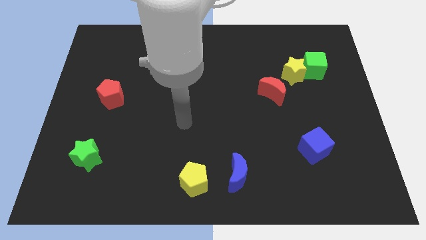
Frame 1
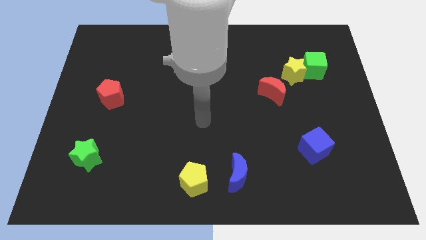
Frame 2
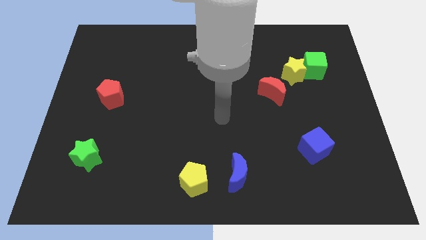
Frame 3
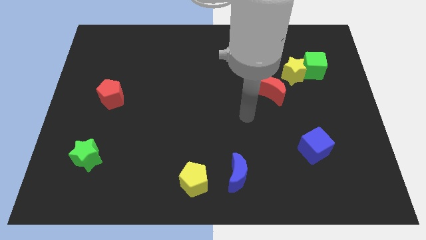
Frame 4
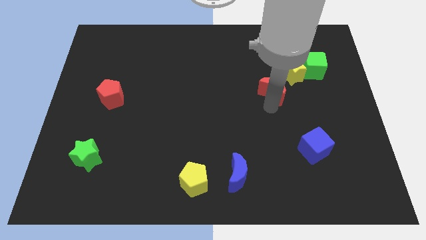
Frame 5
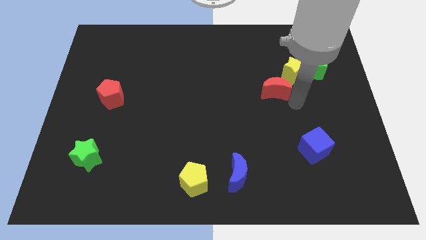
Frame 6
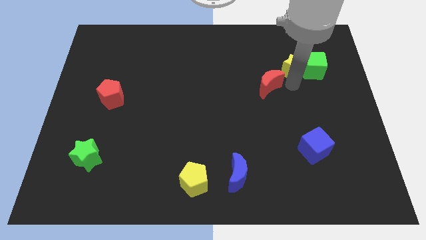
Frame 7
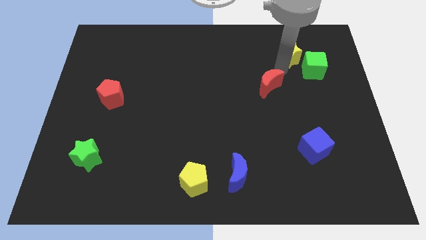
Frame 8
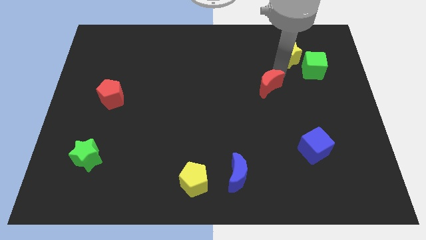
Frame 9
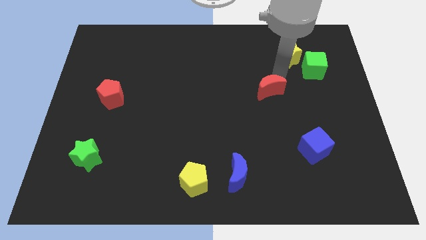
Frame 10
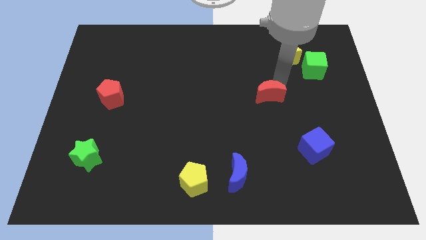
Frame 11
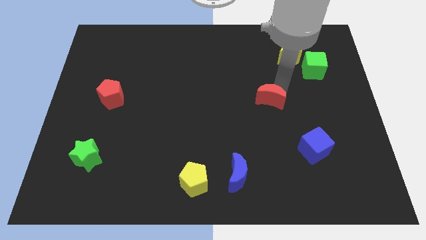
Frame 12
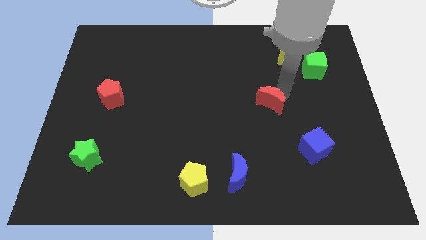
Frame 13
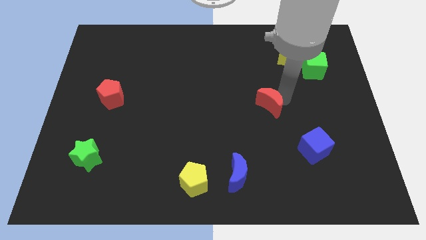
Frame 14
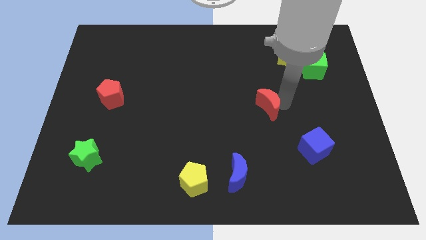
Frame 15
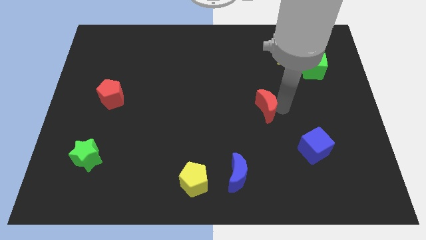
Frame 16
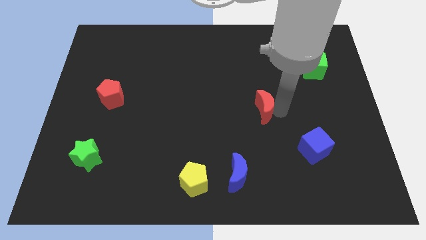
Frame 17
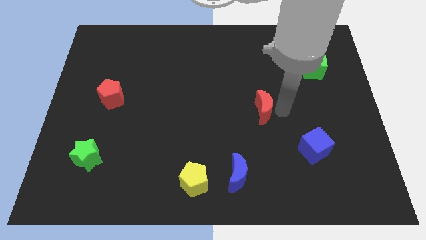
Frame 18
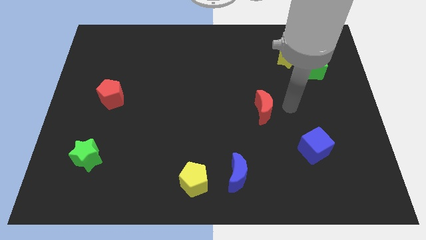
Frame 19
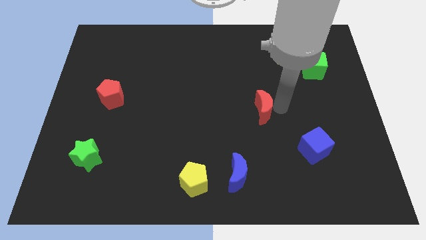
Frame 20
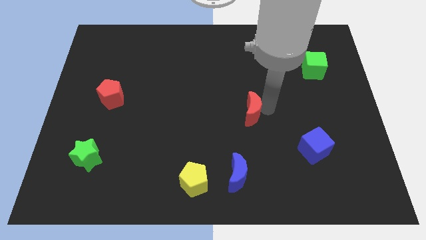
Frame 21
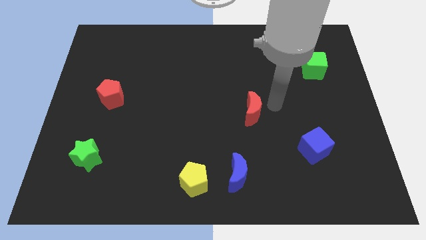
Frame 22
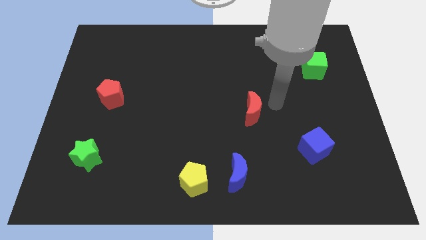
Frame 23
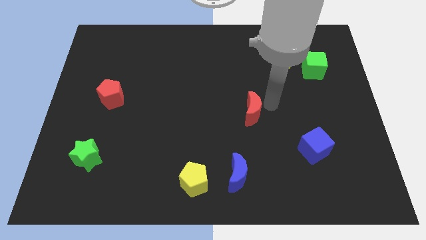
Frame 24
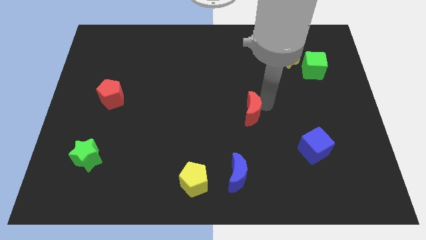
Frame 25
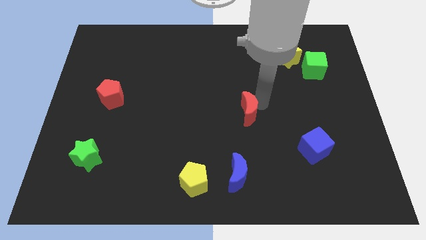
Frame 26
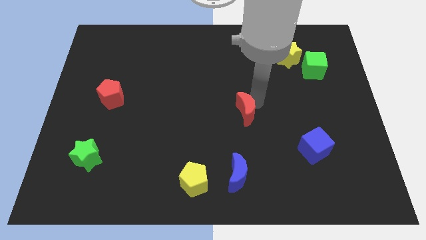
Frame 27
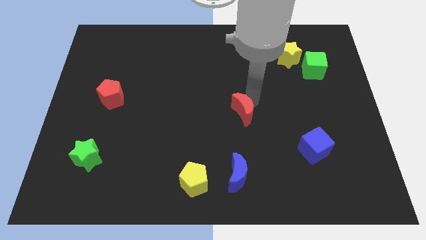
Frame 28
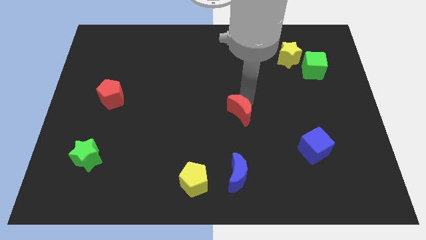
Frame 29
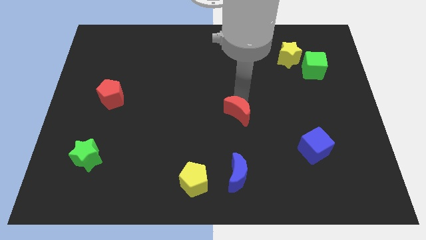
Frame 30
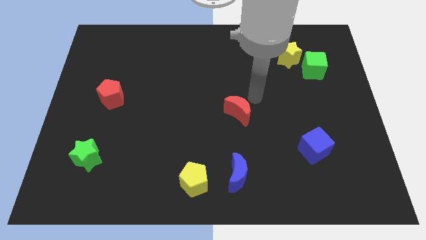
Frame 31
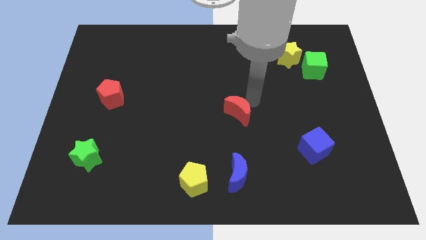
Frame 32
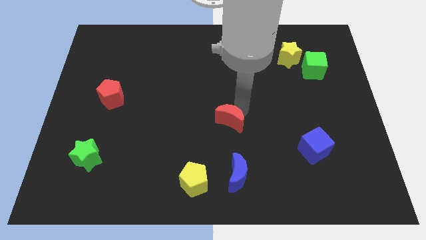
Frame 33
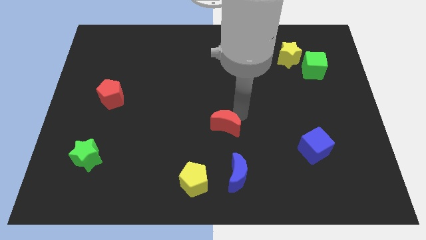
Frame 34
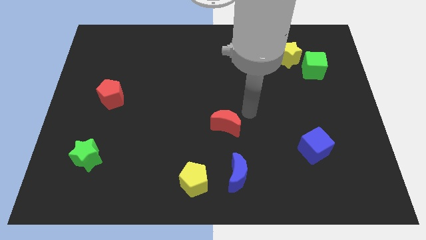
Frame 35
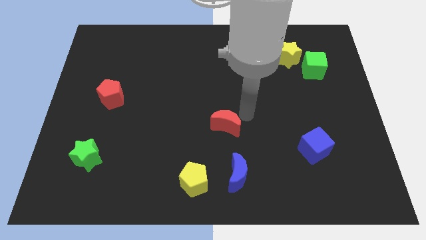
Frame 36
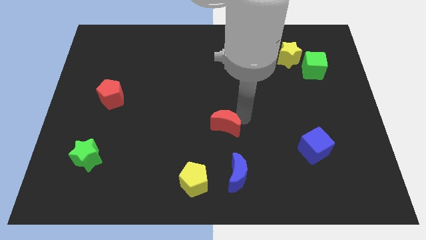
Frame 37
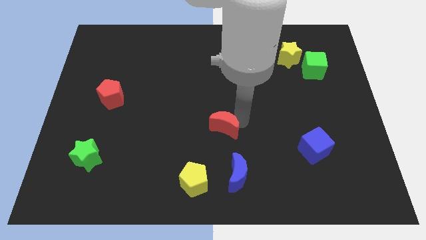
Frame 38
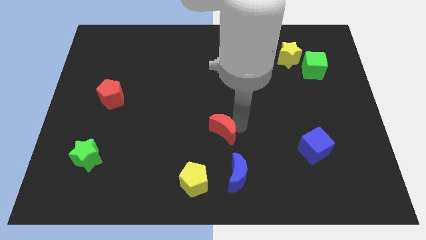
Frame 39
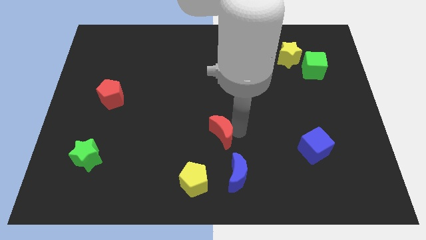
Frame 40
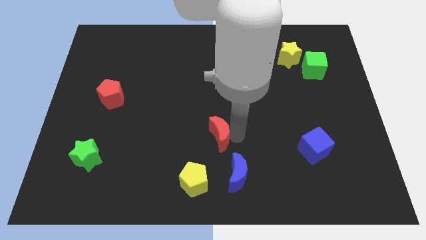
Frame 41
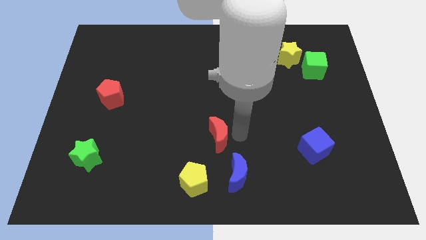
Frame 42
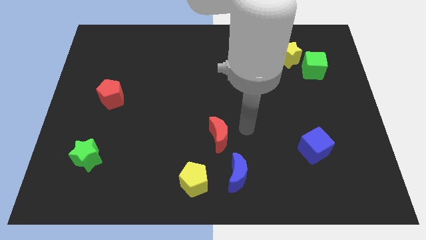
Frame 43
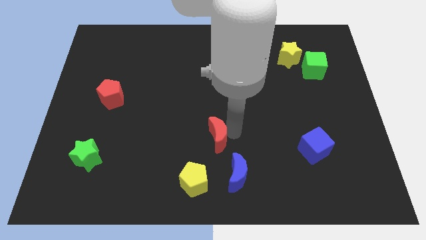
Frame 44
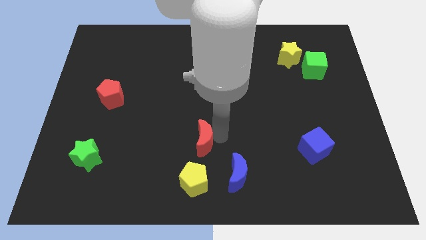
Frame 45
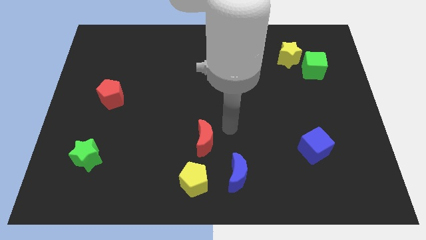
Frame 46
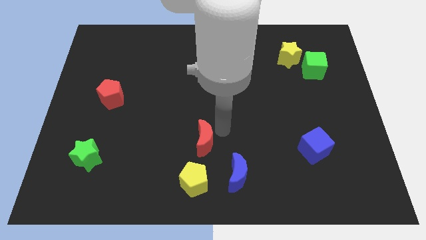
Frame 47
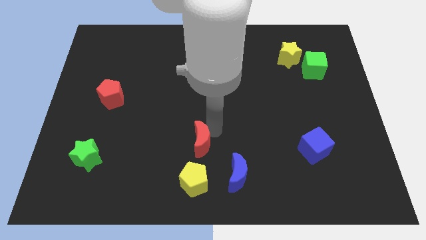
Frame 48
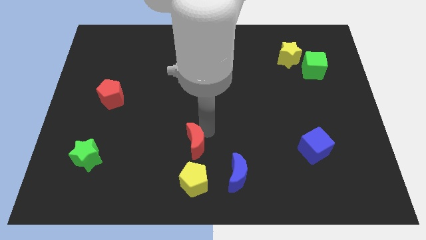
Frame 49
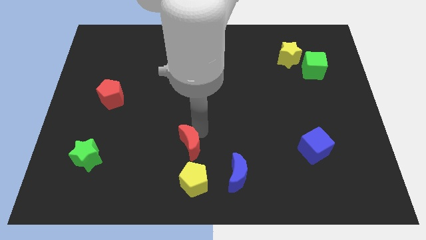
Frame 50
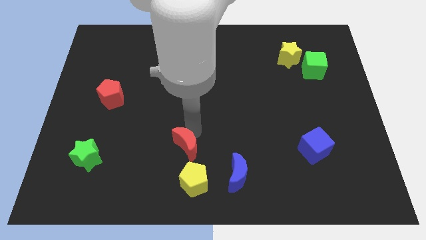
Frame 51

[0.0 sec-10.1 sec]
put the red moon to the top left side of the yellow pentagon

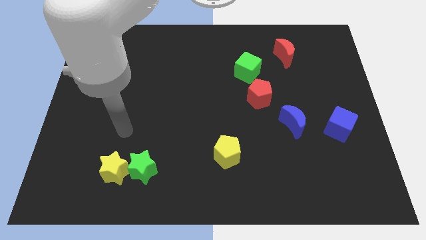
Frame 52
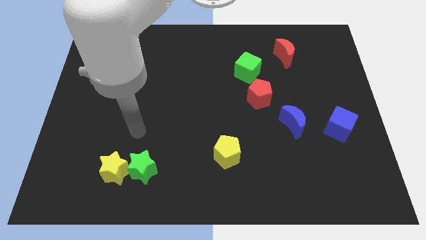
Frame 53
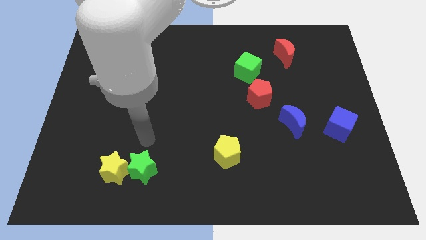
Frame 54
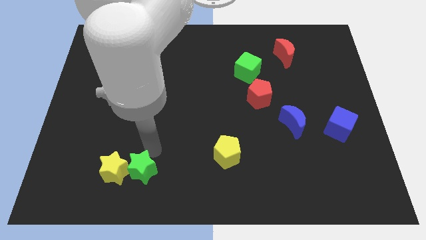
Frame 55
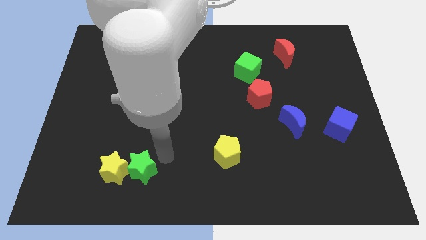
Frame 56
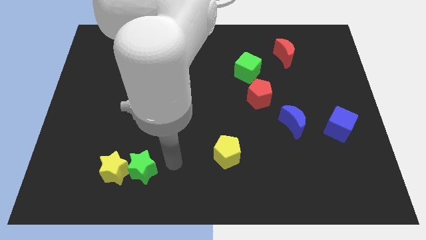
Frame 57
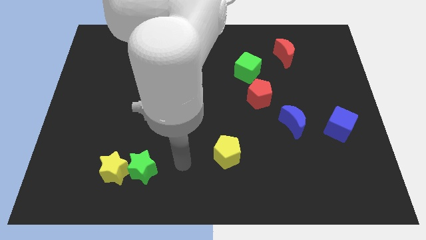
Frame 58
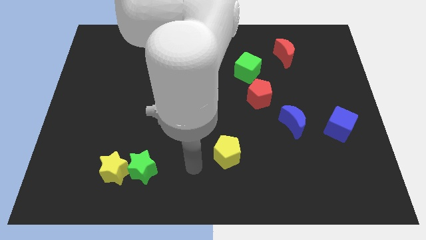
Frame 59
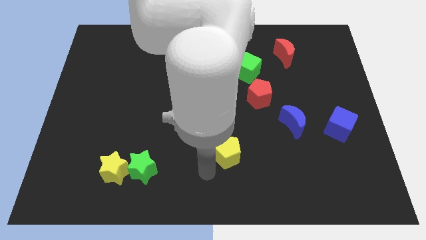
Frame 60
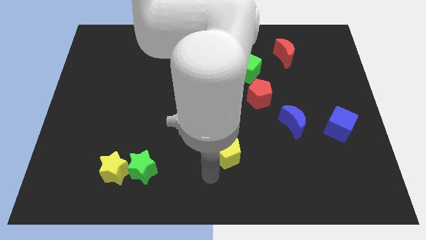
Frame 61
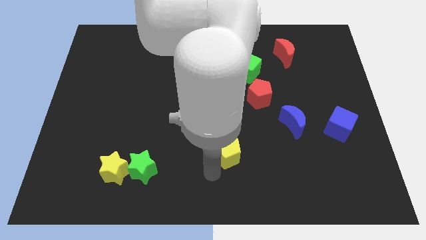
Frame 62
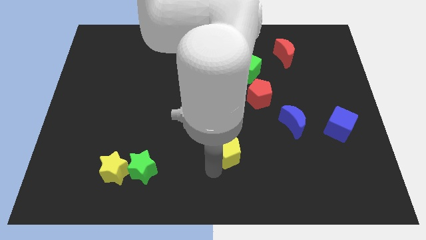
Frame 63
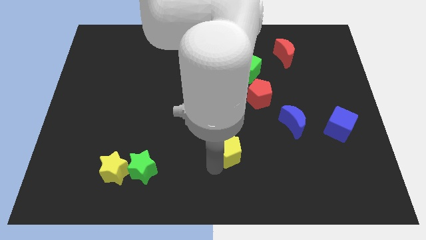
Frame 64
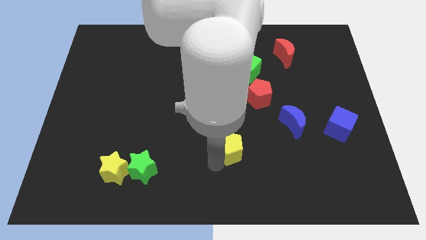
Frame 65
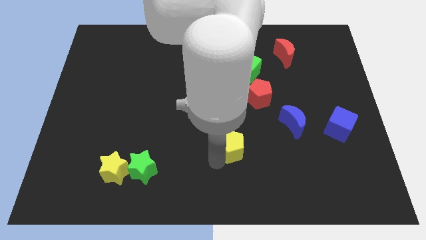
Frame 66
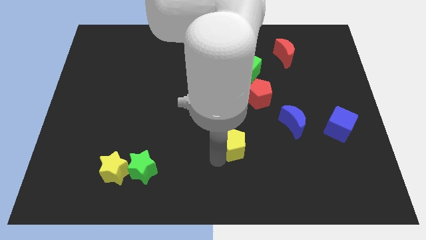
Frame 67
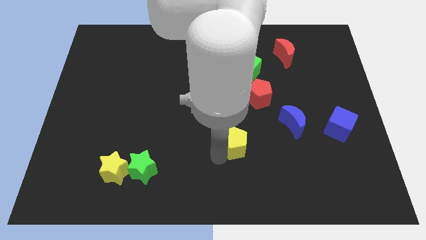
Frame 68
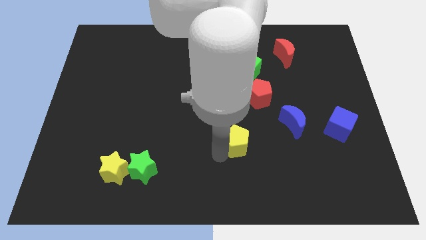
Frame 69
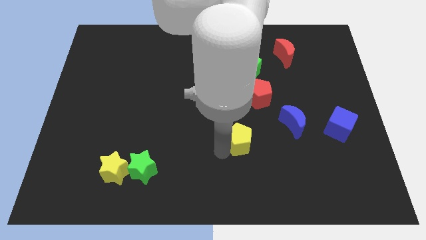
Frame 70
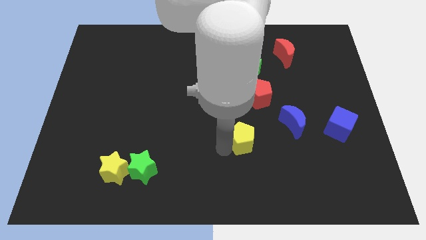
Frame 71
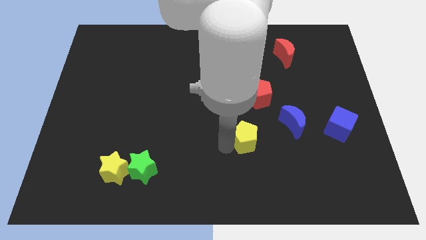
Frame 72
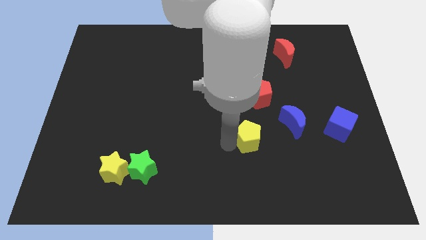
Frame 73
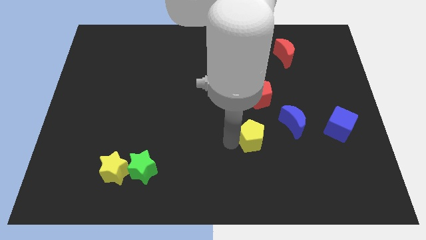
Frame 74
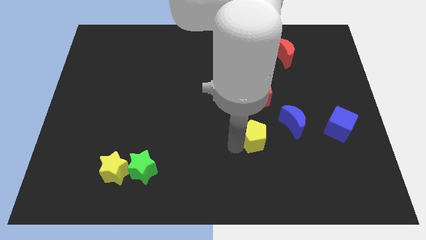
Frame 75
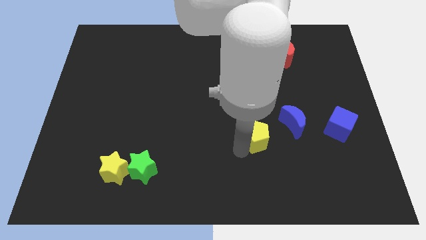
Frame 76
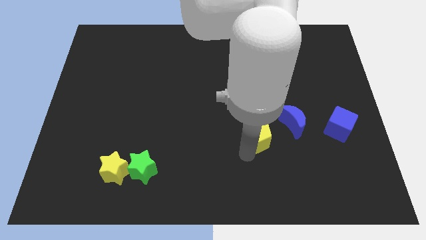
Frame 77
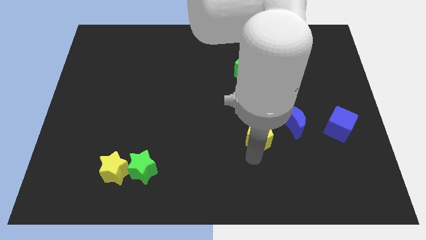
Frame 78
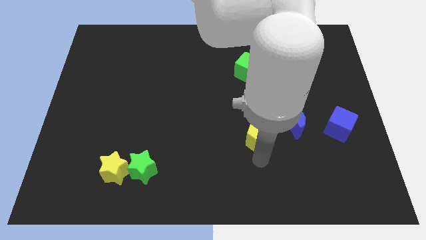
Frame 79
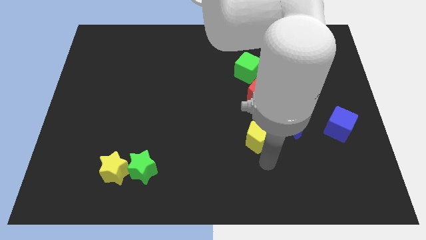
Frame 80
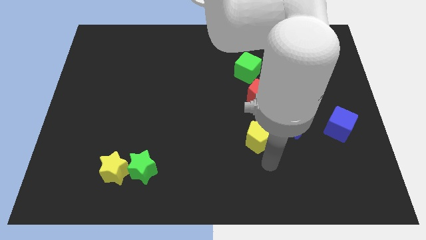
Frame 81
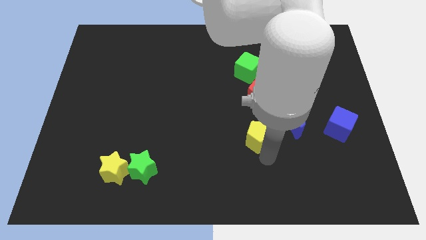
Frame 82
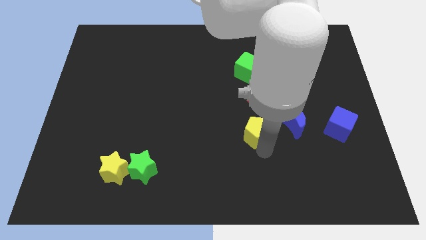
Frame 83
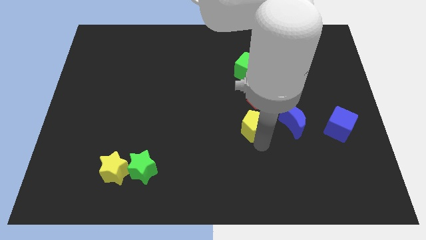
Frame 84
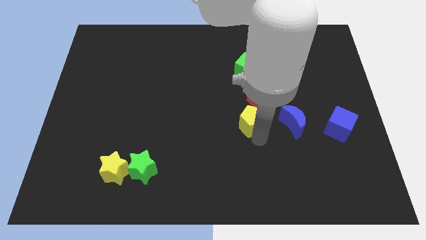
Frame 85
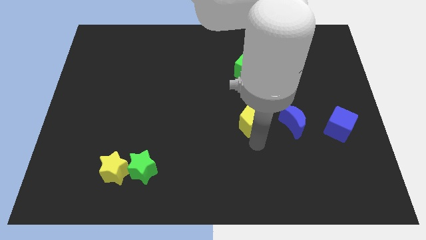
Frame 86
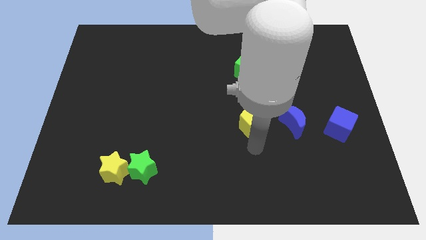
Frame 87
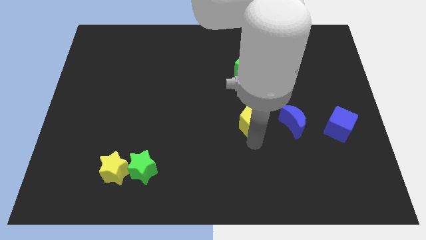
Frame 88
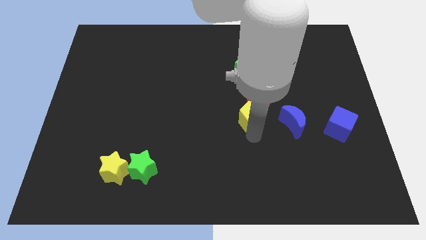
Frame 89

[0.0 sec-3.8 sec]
push the yellow pentagon below the green cube
